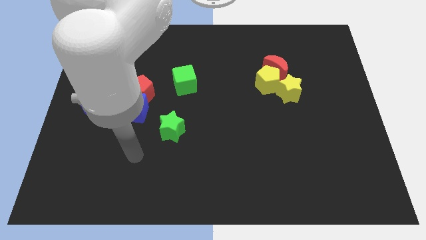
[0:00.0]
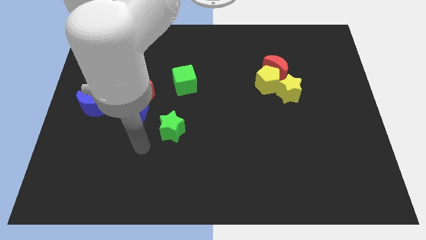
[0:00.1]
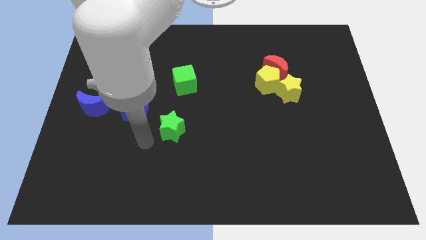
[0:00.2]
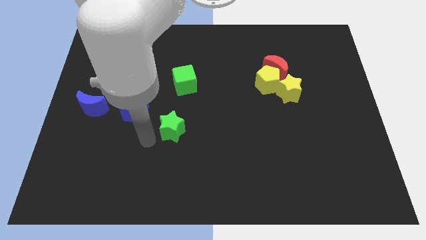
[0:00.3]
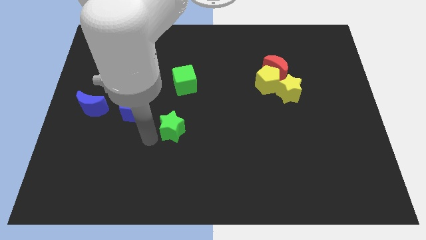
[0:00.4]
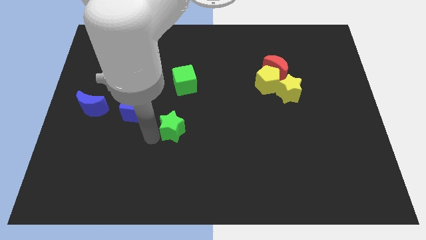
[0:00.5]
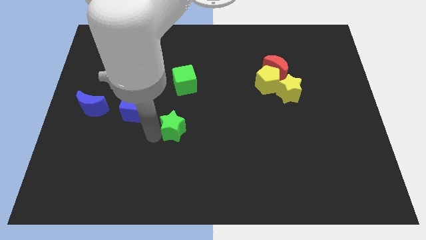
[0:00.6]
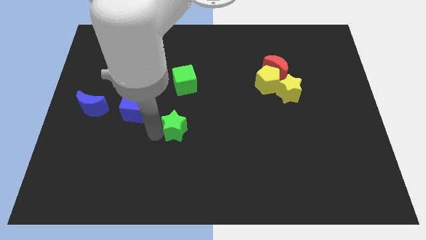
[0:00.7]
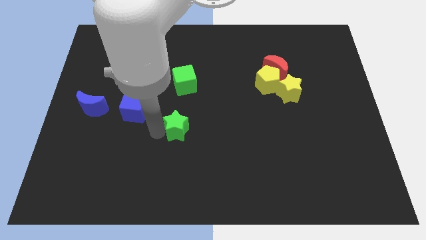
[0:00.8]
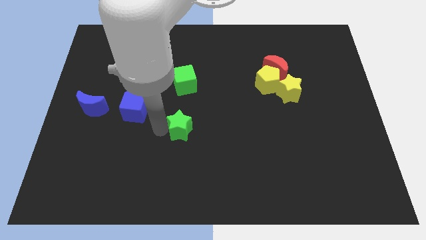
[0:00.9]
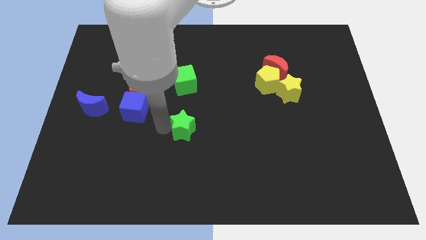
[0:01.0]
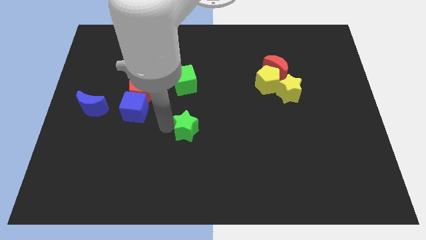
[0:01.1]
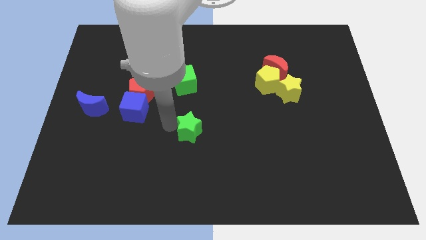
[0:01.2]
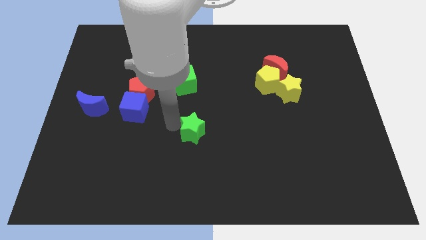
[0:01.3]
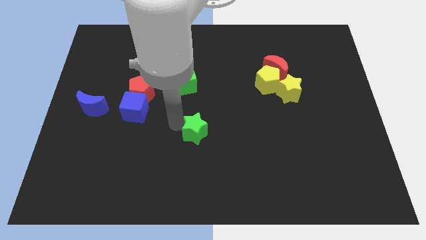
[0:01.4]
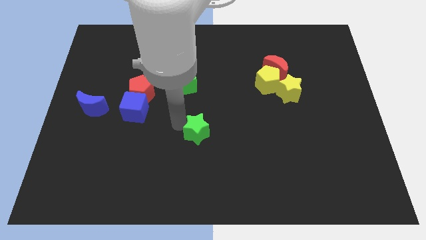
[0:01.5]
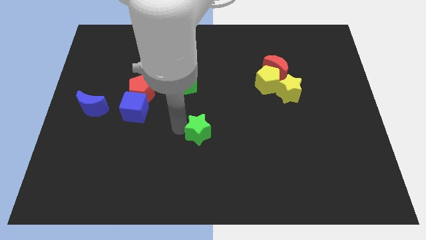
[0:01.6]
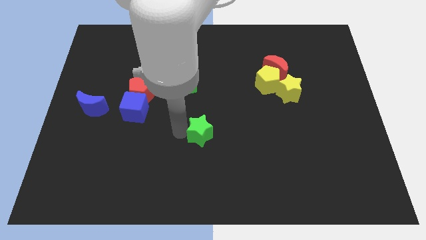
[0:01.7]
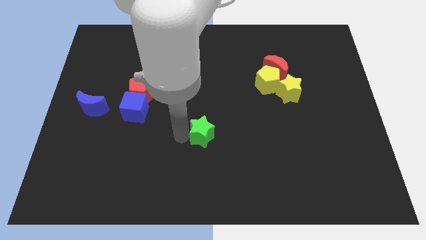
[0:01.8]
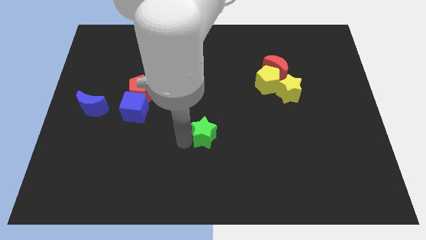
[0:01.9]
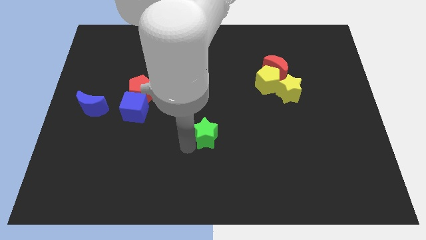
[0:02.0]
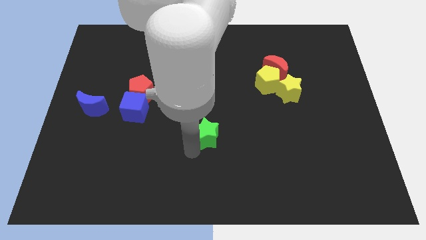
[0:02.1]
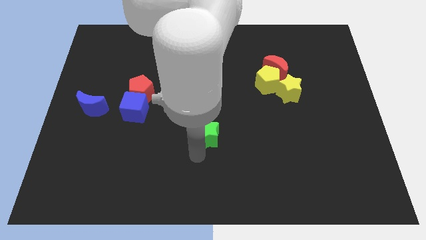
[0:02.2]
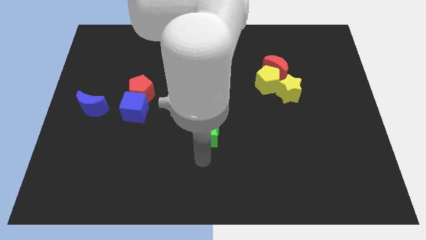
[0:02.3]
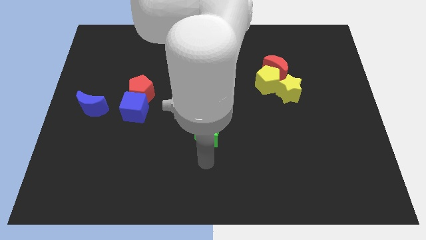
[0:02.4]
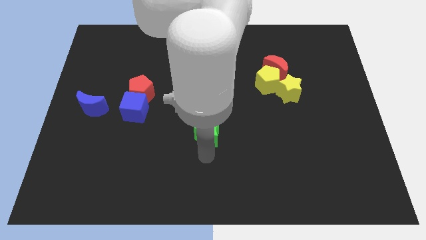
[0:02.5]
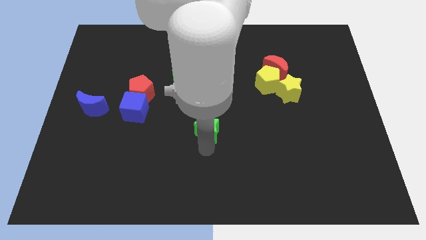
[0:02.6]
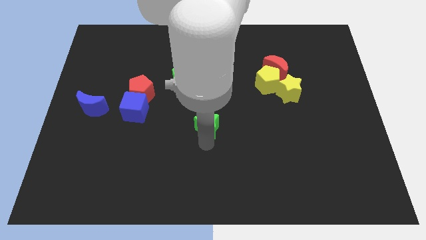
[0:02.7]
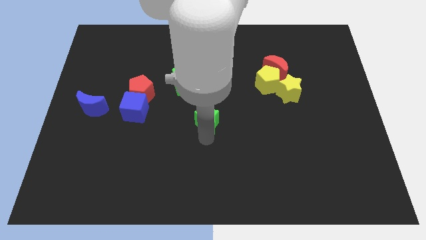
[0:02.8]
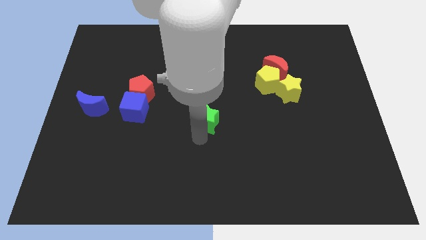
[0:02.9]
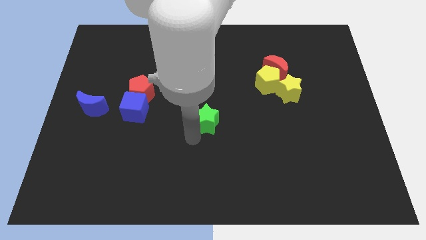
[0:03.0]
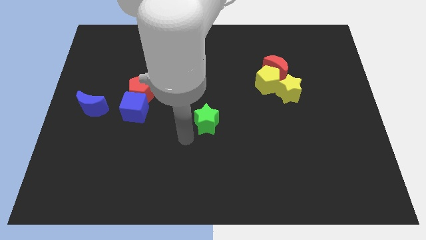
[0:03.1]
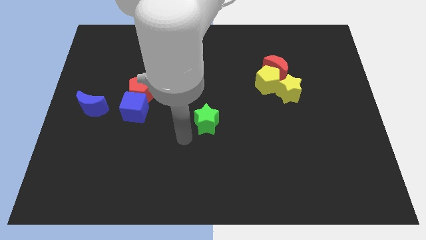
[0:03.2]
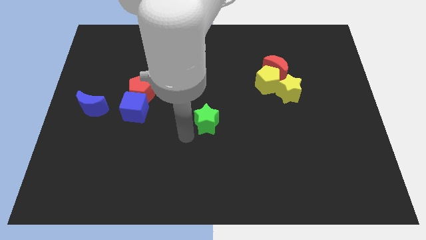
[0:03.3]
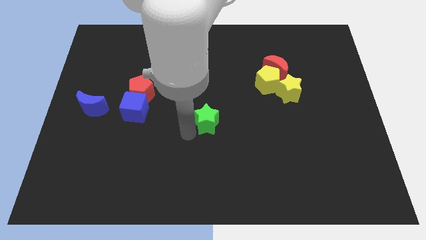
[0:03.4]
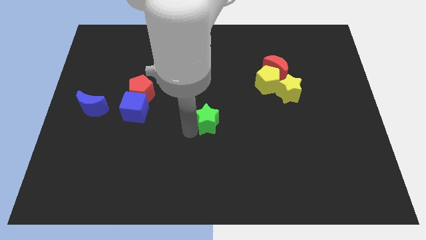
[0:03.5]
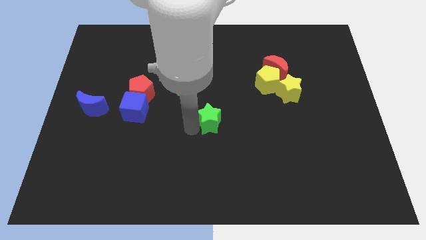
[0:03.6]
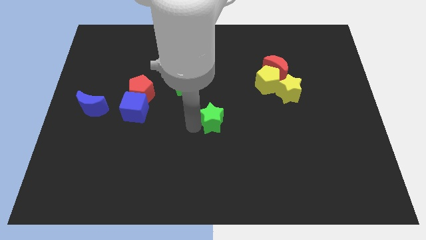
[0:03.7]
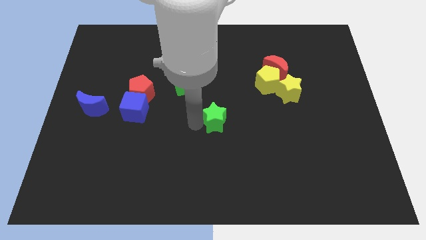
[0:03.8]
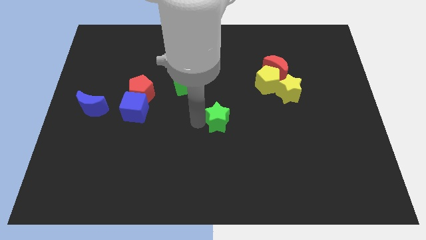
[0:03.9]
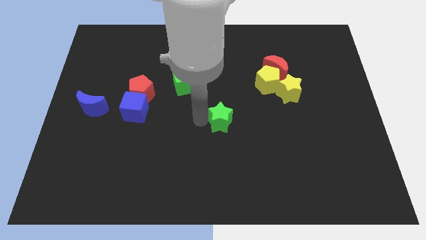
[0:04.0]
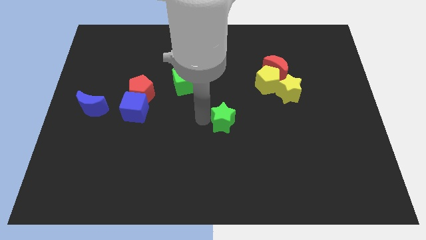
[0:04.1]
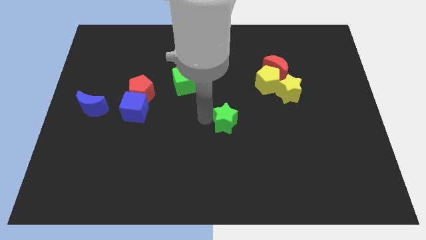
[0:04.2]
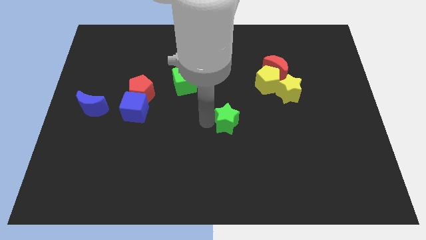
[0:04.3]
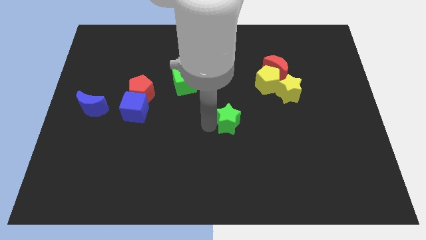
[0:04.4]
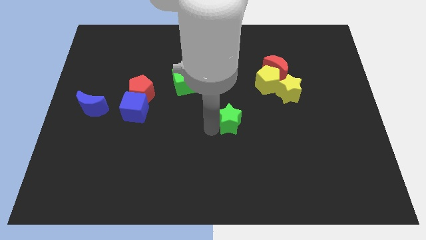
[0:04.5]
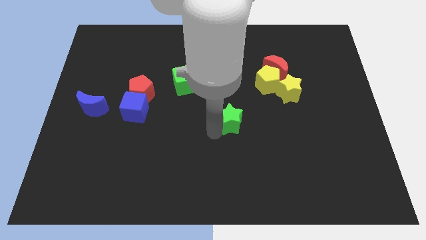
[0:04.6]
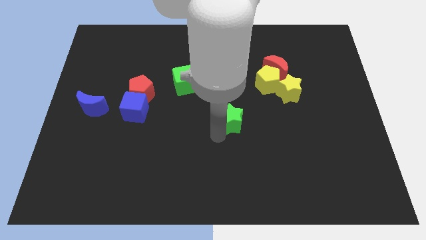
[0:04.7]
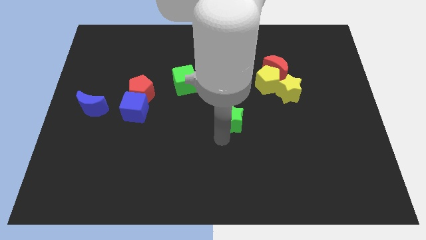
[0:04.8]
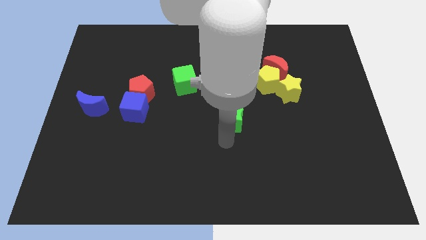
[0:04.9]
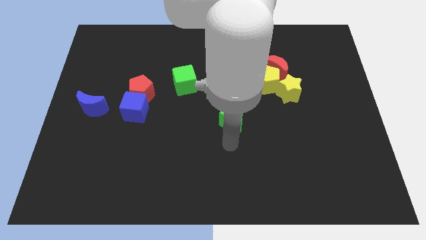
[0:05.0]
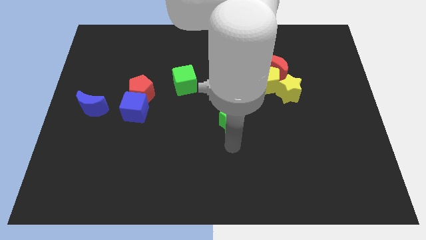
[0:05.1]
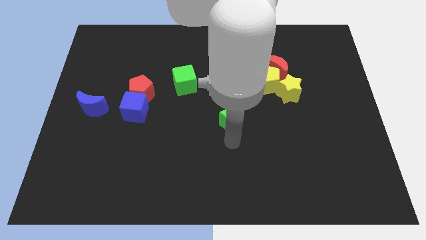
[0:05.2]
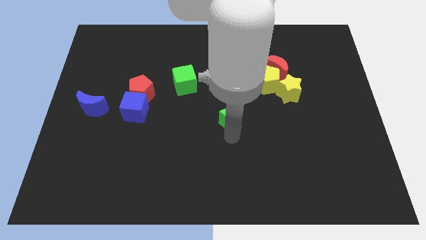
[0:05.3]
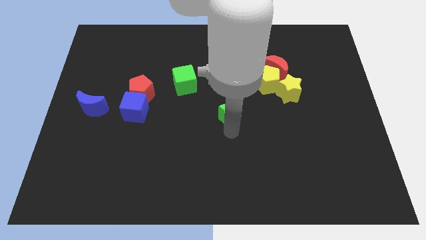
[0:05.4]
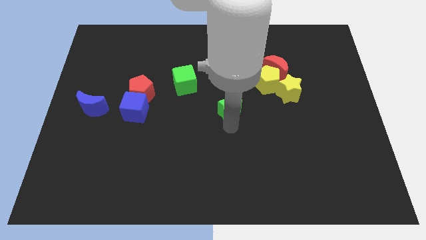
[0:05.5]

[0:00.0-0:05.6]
put the green star diagonally down and to the left of the yellow pentagon

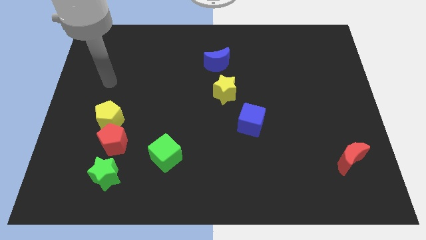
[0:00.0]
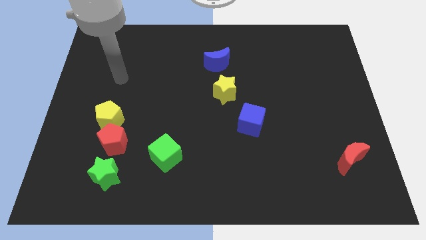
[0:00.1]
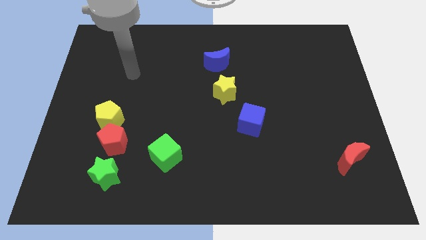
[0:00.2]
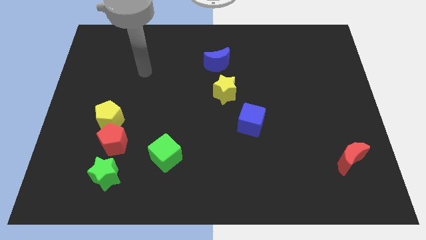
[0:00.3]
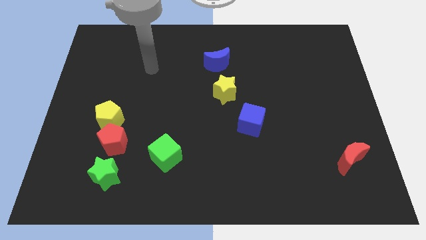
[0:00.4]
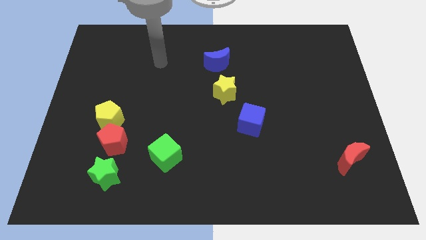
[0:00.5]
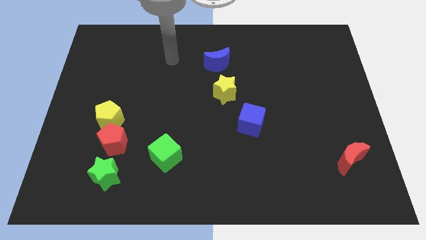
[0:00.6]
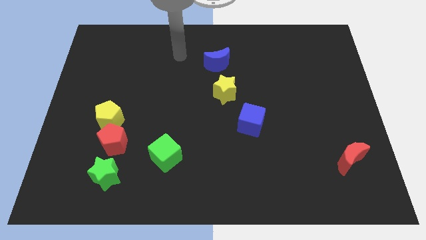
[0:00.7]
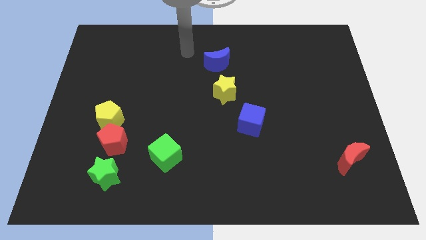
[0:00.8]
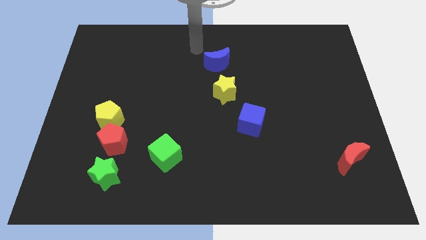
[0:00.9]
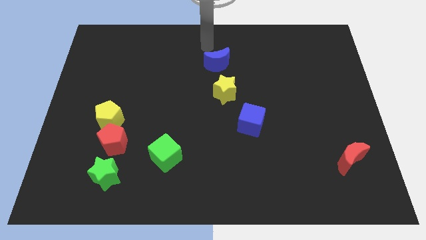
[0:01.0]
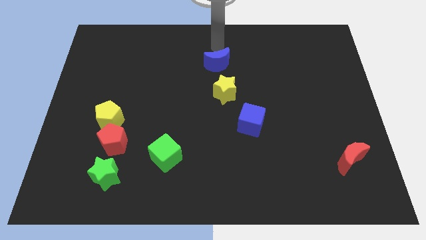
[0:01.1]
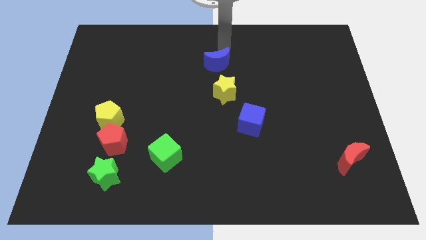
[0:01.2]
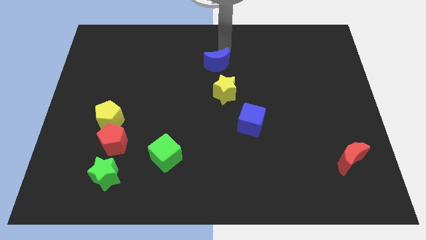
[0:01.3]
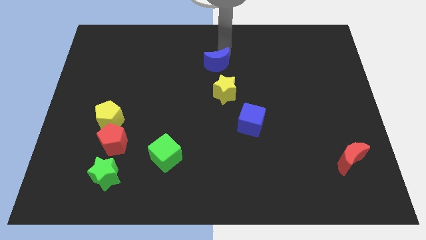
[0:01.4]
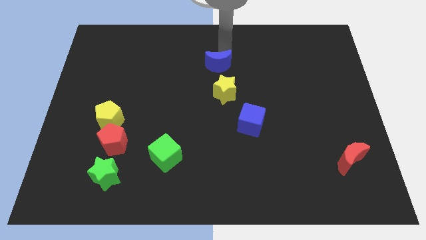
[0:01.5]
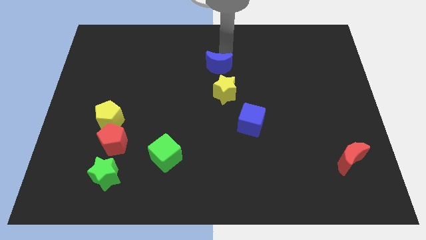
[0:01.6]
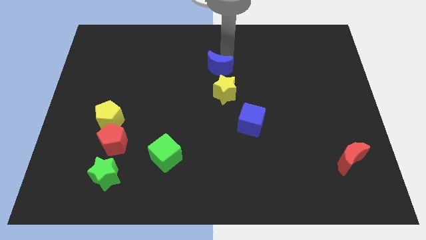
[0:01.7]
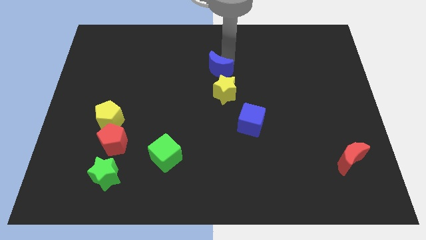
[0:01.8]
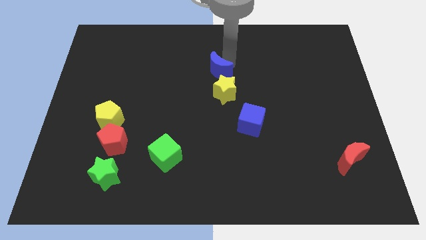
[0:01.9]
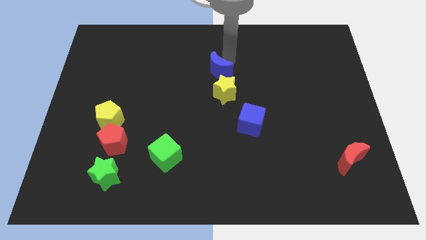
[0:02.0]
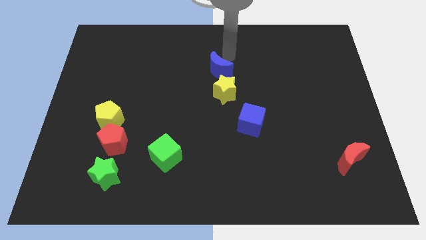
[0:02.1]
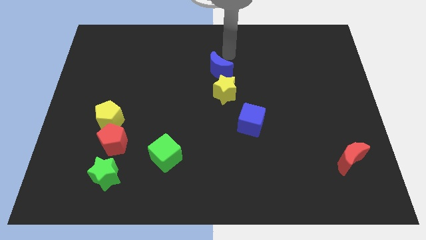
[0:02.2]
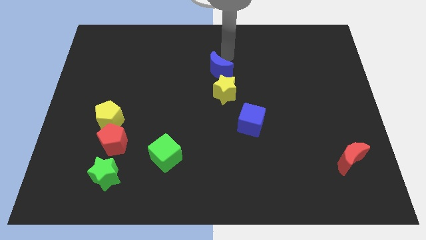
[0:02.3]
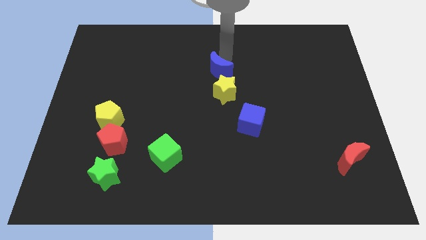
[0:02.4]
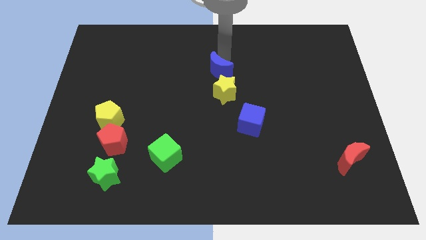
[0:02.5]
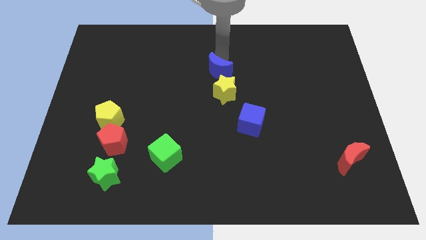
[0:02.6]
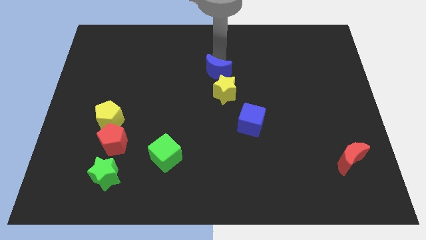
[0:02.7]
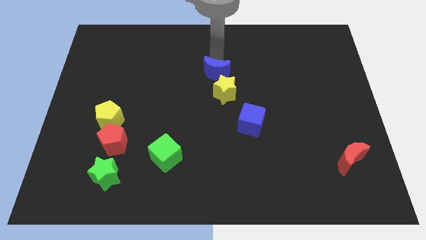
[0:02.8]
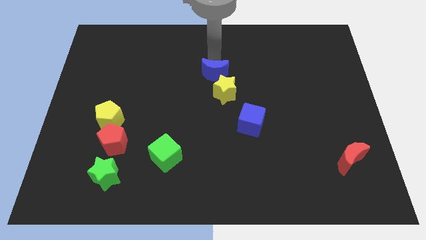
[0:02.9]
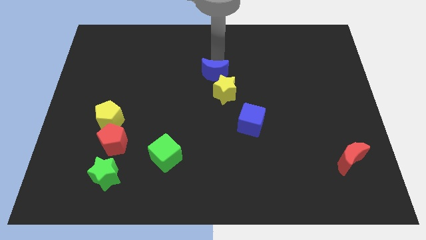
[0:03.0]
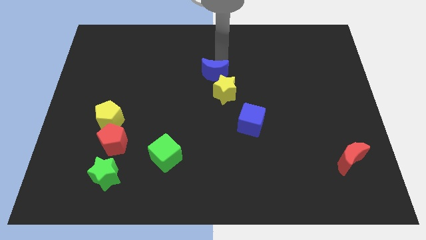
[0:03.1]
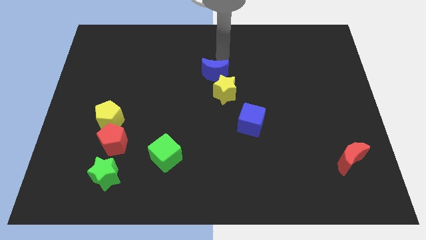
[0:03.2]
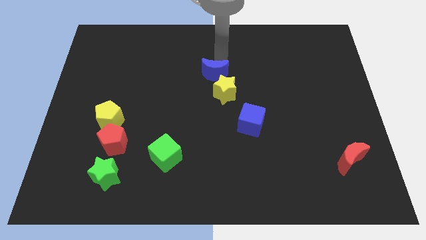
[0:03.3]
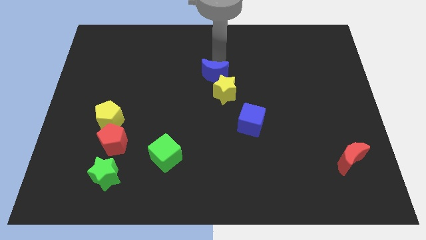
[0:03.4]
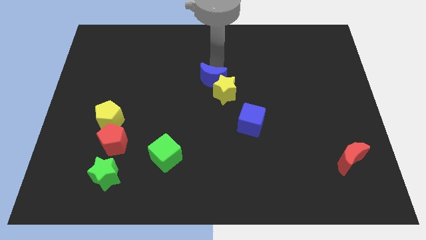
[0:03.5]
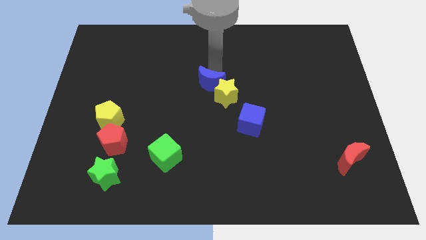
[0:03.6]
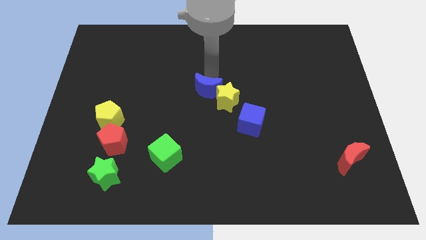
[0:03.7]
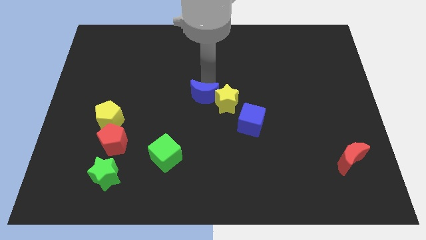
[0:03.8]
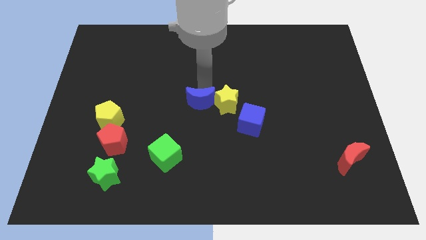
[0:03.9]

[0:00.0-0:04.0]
put the blue moon to the bottom left side of the yellow star
